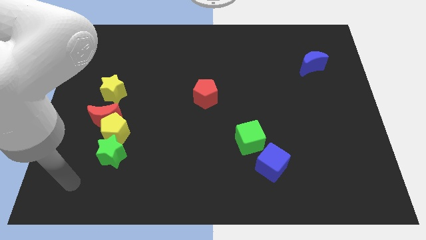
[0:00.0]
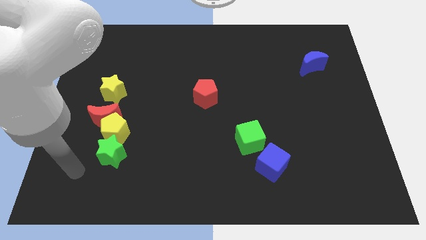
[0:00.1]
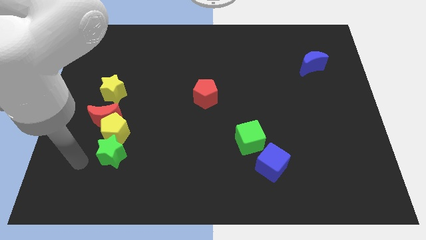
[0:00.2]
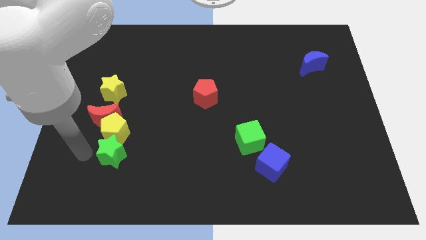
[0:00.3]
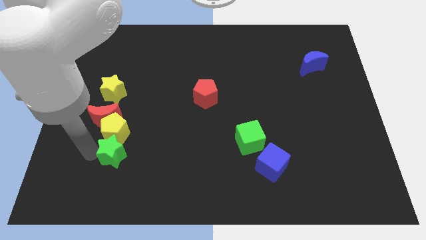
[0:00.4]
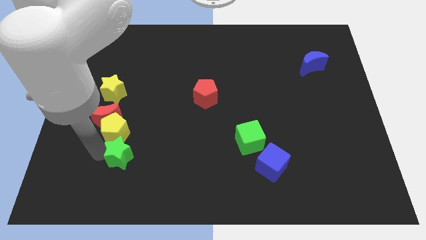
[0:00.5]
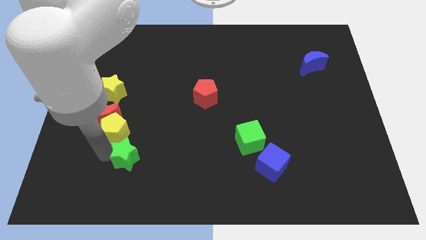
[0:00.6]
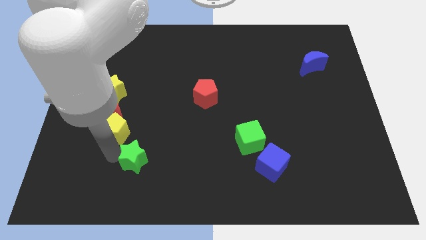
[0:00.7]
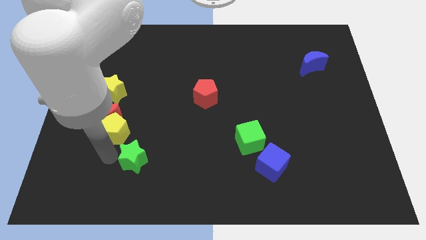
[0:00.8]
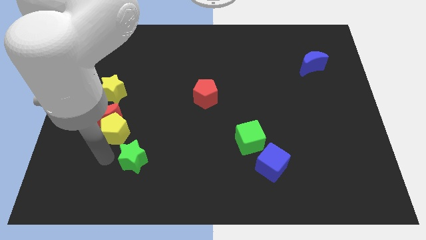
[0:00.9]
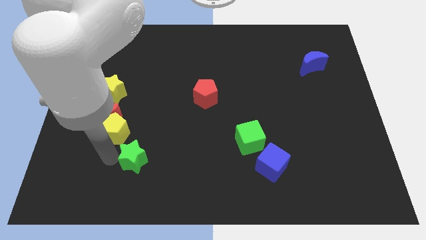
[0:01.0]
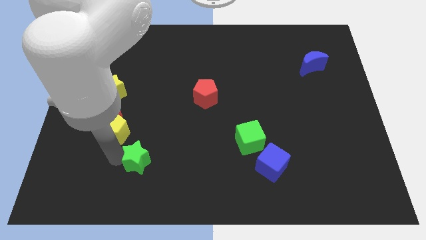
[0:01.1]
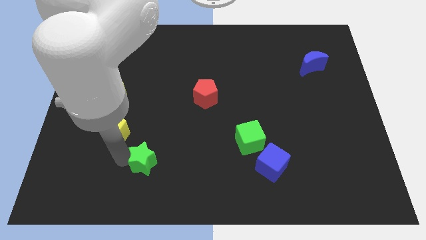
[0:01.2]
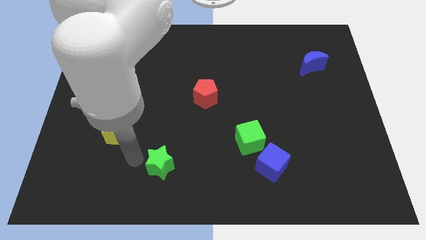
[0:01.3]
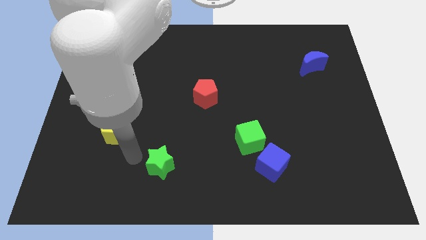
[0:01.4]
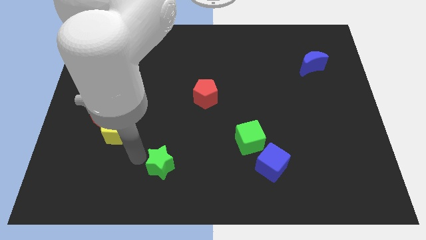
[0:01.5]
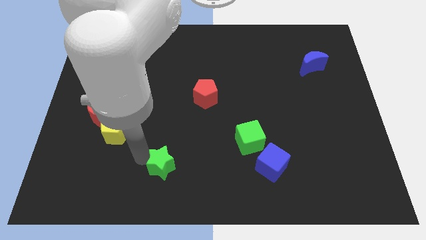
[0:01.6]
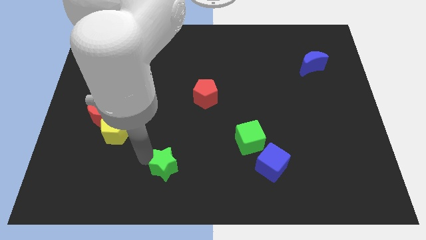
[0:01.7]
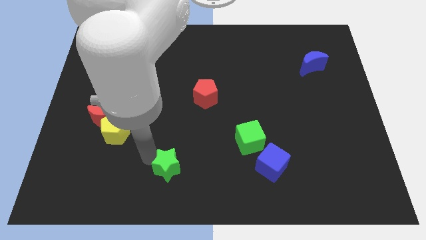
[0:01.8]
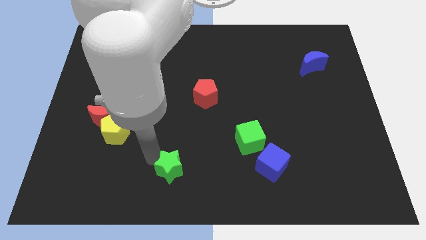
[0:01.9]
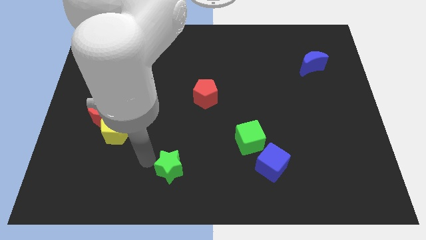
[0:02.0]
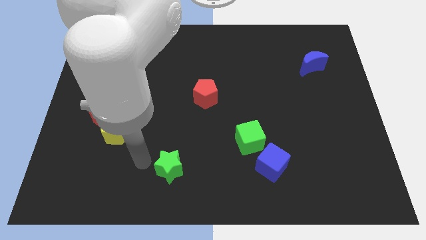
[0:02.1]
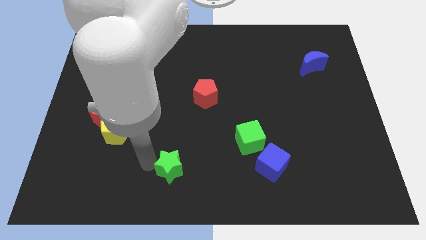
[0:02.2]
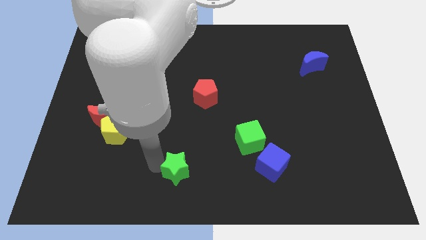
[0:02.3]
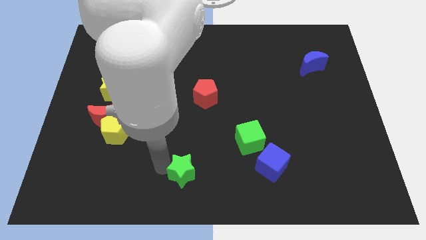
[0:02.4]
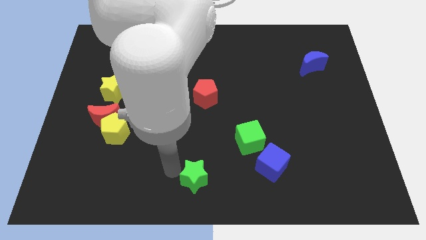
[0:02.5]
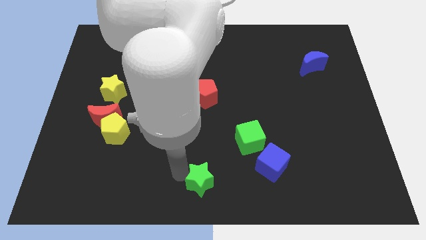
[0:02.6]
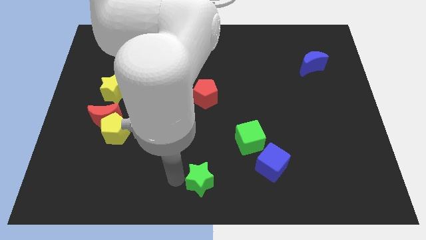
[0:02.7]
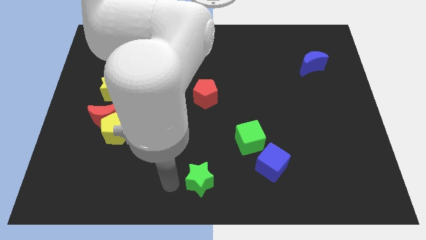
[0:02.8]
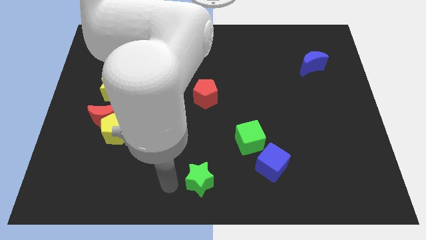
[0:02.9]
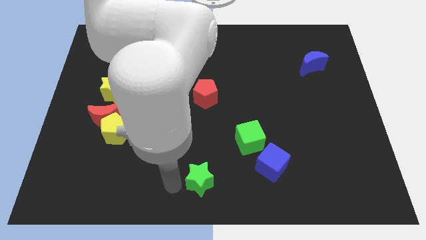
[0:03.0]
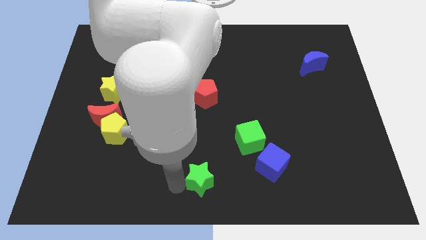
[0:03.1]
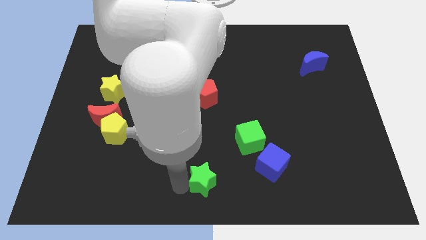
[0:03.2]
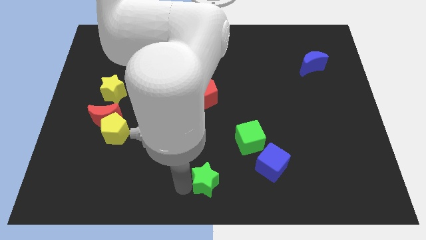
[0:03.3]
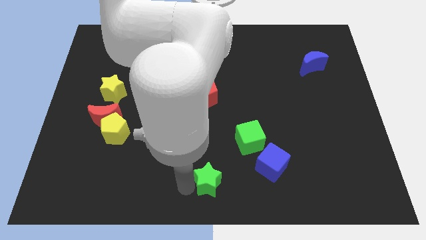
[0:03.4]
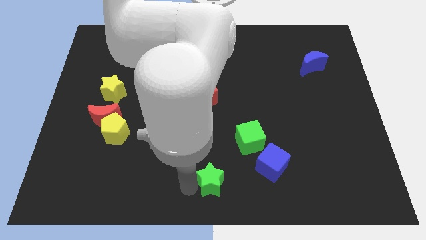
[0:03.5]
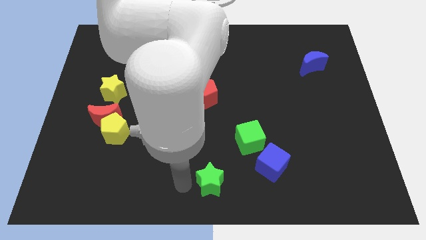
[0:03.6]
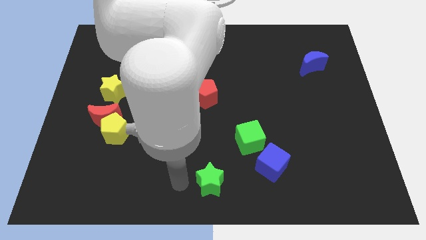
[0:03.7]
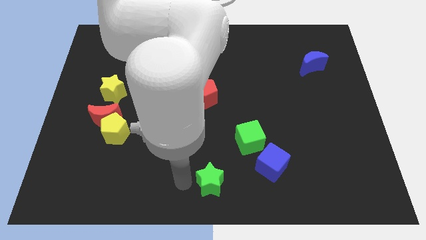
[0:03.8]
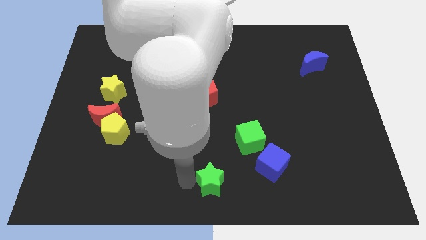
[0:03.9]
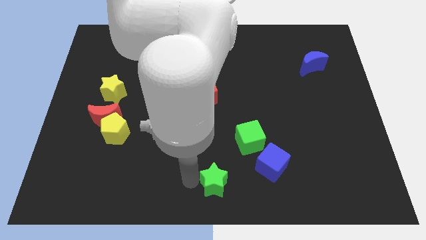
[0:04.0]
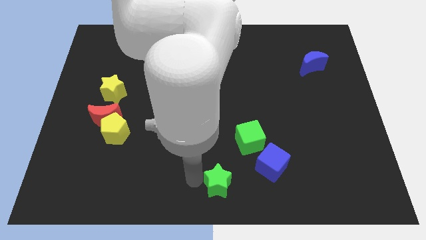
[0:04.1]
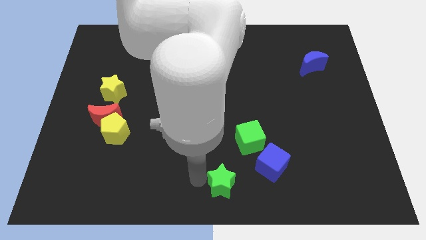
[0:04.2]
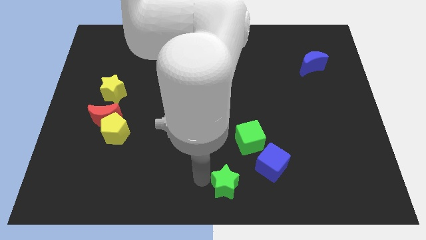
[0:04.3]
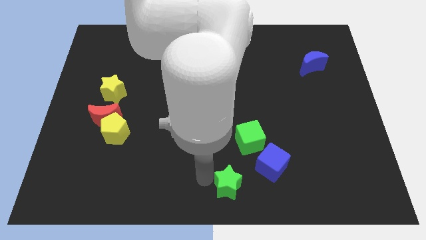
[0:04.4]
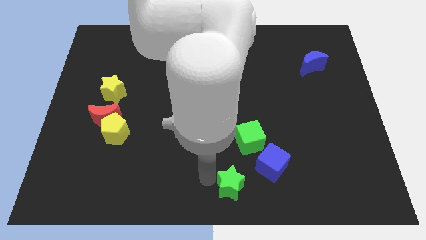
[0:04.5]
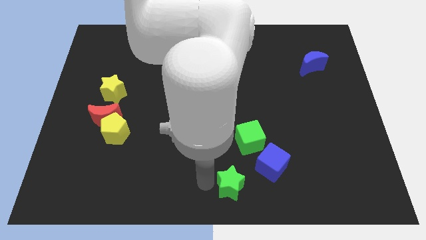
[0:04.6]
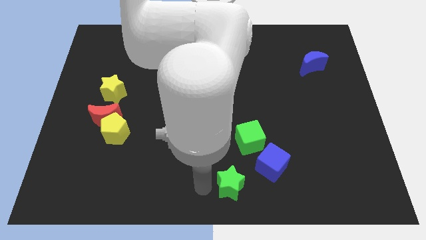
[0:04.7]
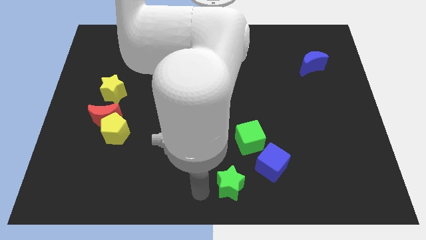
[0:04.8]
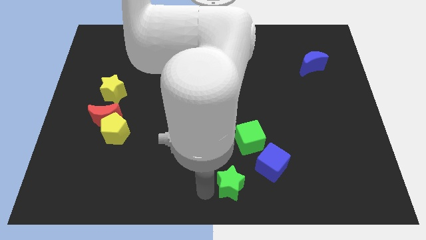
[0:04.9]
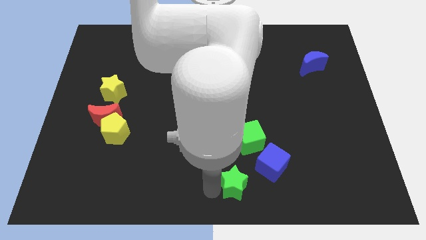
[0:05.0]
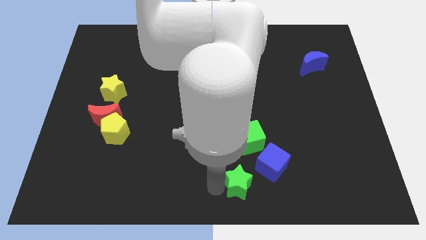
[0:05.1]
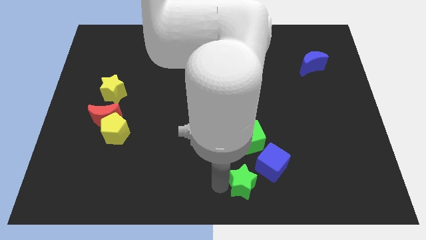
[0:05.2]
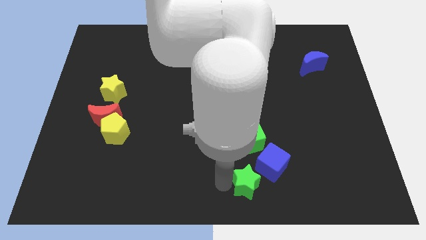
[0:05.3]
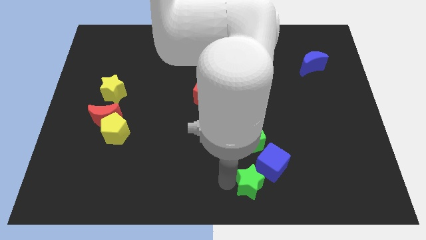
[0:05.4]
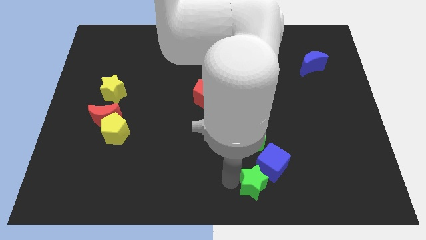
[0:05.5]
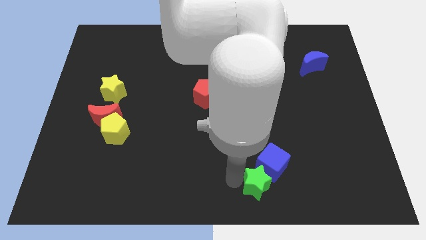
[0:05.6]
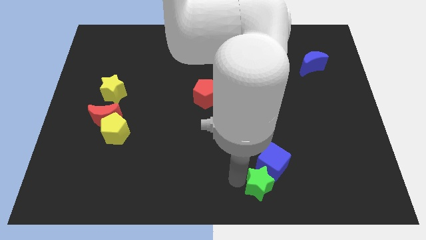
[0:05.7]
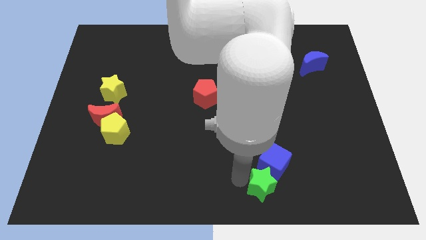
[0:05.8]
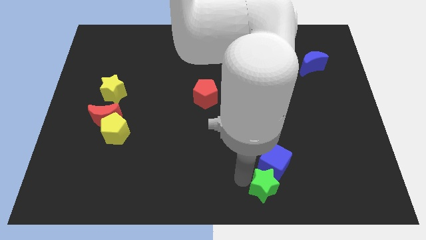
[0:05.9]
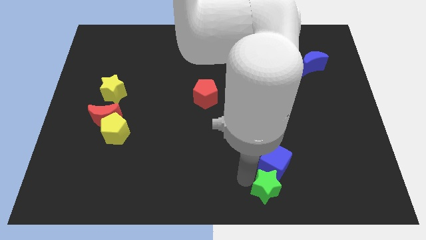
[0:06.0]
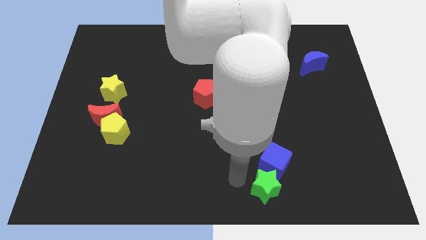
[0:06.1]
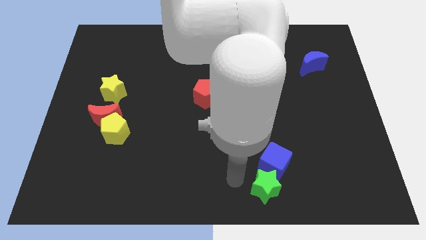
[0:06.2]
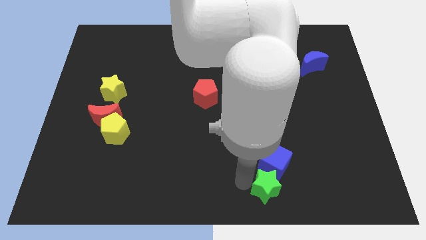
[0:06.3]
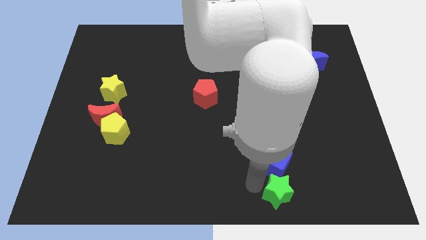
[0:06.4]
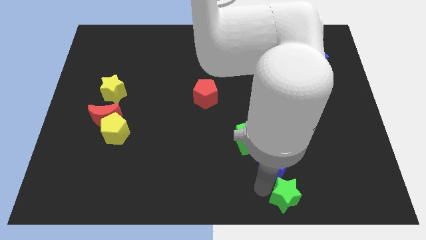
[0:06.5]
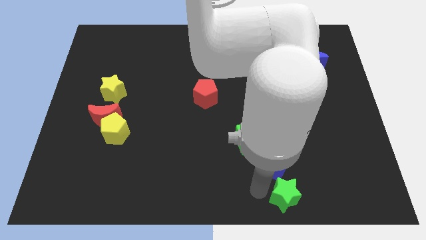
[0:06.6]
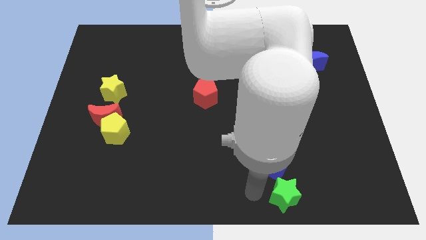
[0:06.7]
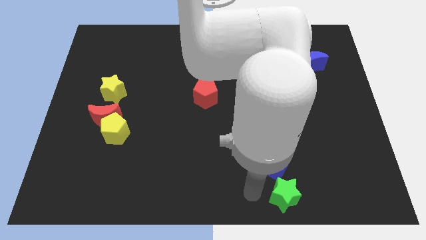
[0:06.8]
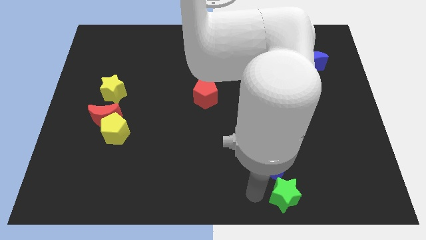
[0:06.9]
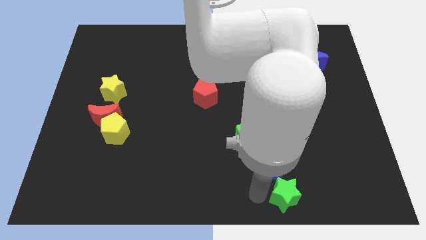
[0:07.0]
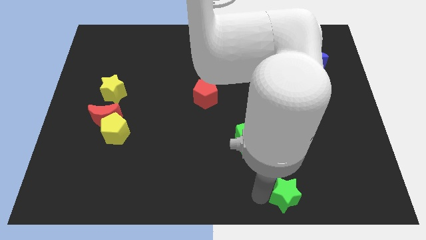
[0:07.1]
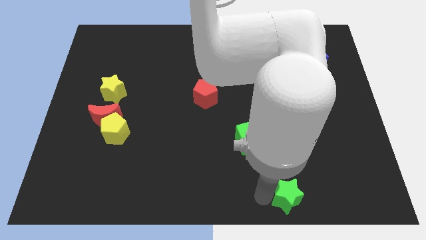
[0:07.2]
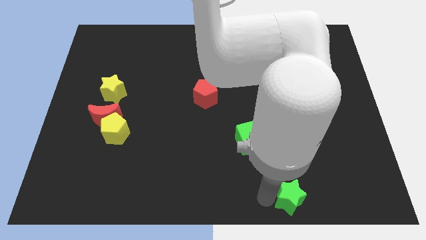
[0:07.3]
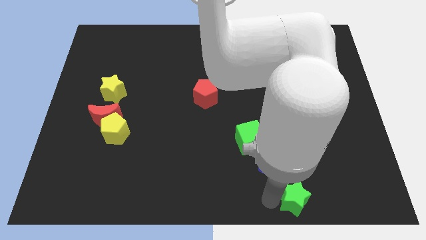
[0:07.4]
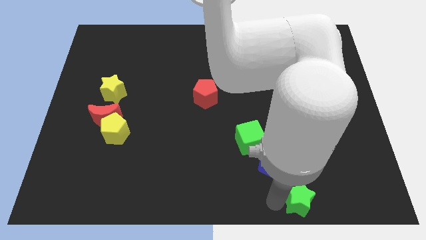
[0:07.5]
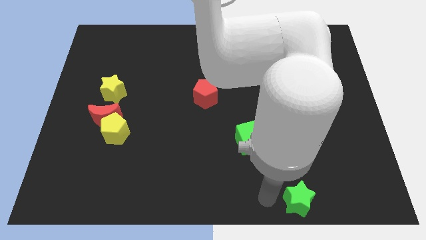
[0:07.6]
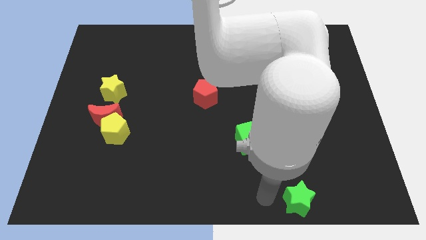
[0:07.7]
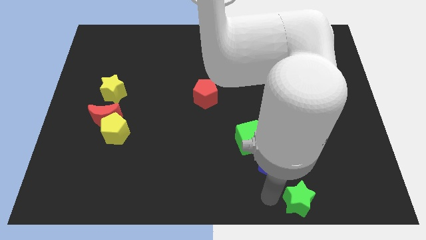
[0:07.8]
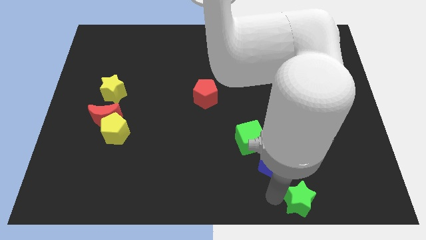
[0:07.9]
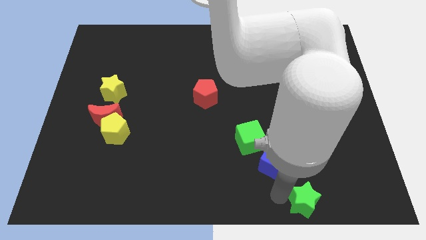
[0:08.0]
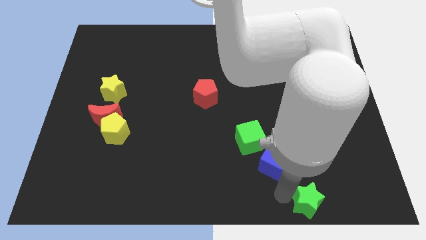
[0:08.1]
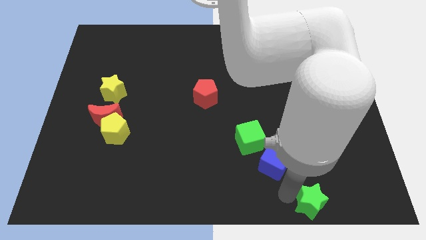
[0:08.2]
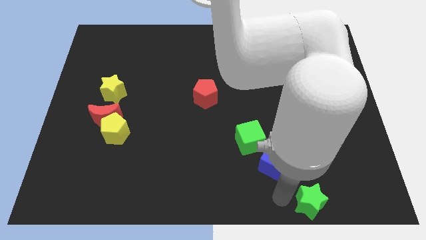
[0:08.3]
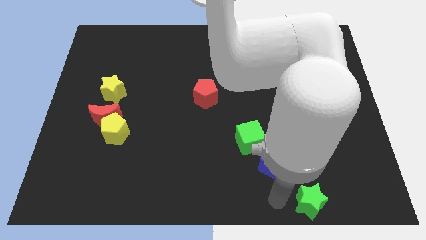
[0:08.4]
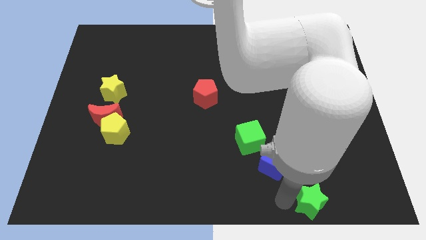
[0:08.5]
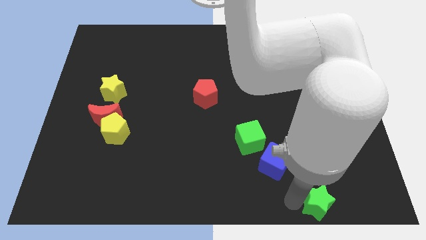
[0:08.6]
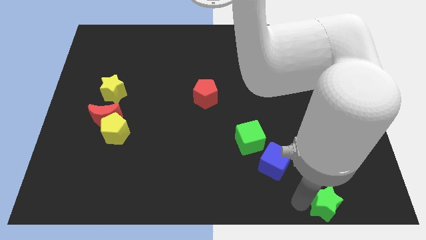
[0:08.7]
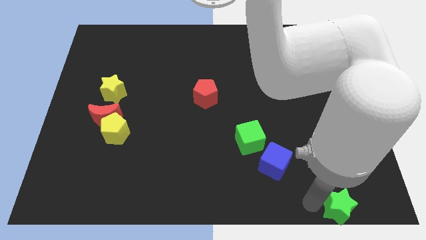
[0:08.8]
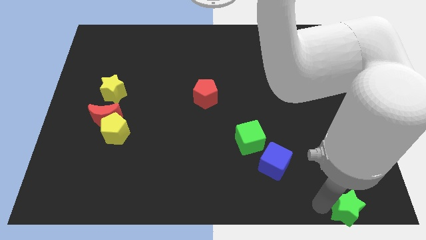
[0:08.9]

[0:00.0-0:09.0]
slide the green star to the bottom right
